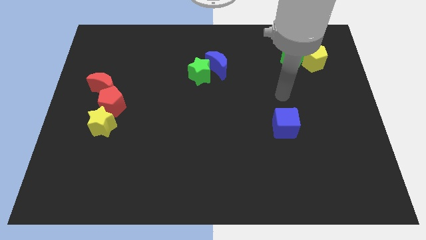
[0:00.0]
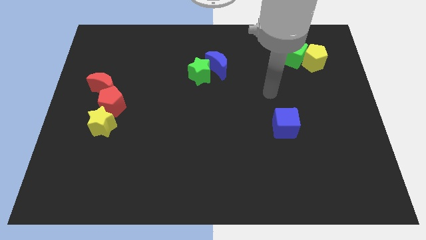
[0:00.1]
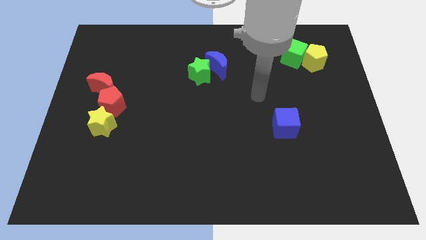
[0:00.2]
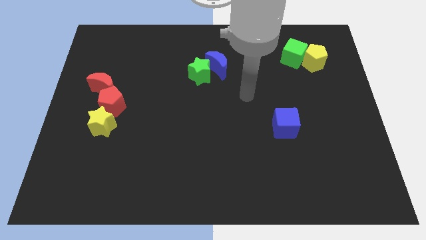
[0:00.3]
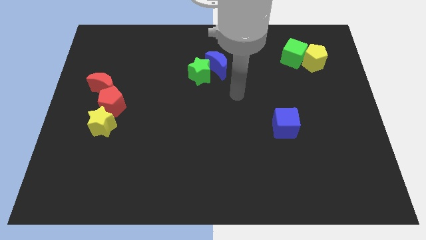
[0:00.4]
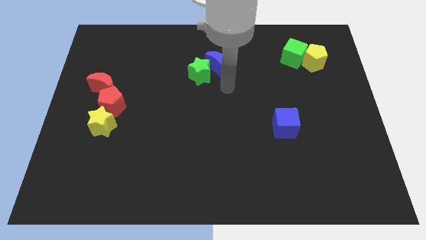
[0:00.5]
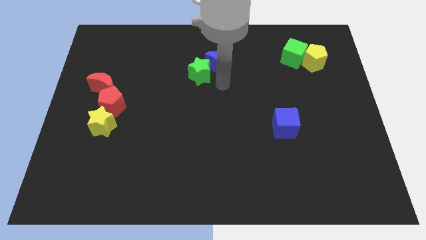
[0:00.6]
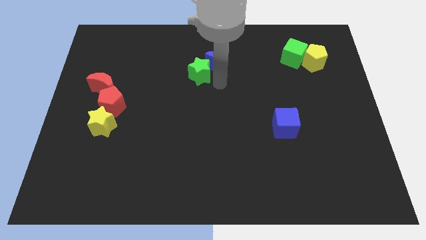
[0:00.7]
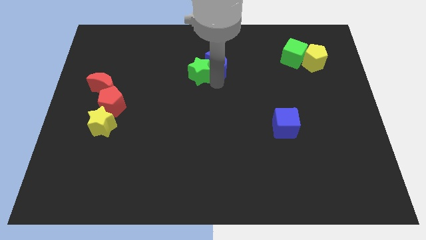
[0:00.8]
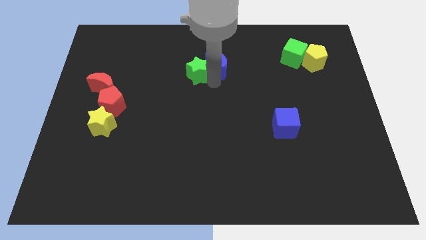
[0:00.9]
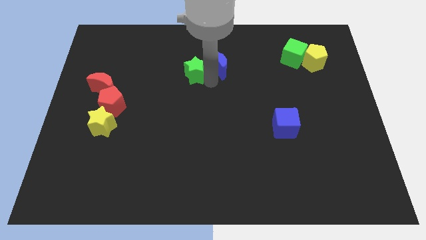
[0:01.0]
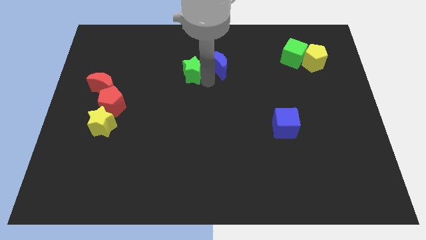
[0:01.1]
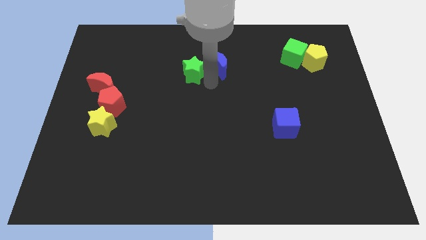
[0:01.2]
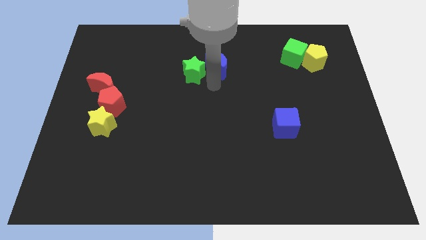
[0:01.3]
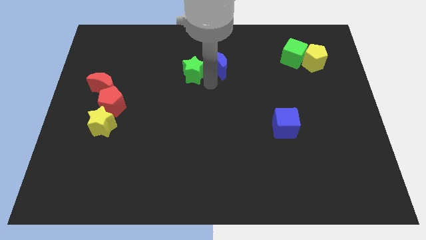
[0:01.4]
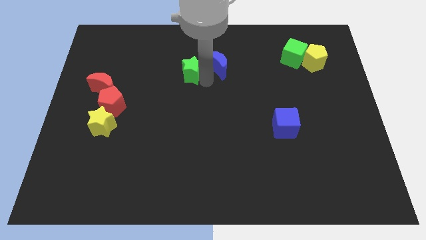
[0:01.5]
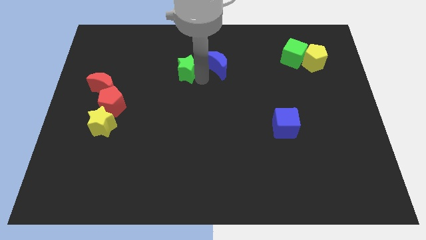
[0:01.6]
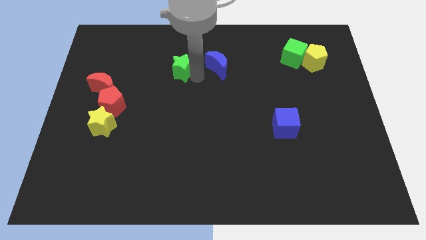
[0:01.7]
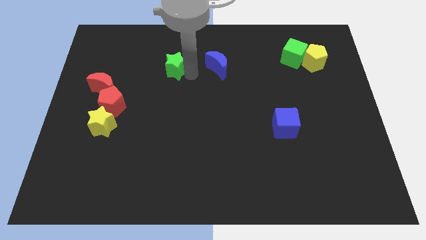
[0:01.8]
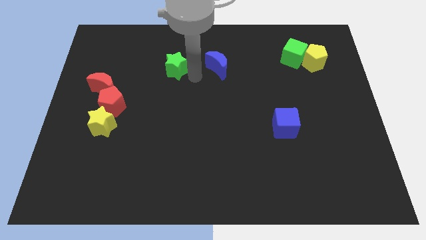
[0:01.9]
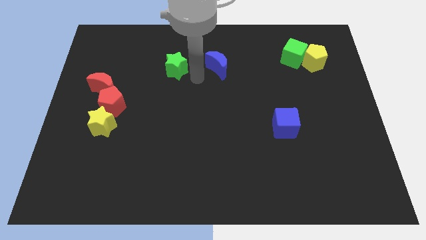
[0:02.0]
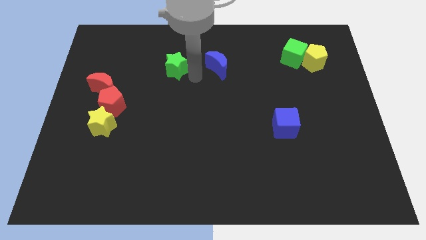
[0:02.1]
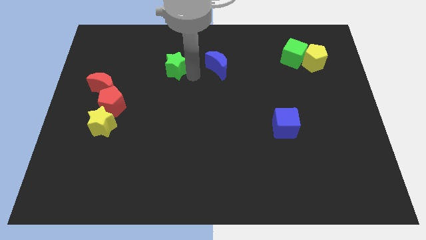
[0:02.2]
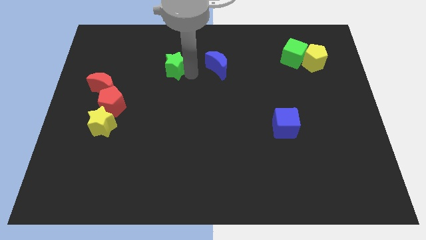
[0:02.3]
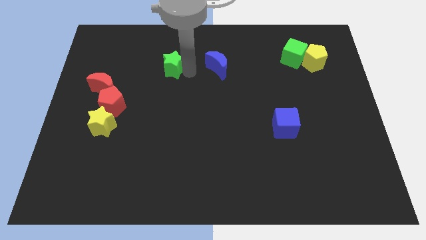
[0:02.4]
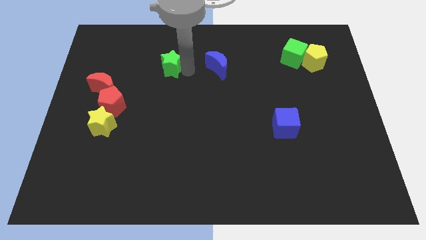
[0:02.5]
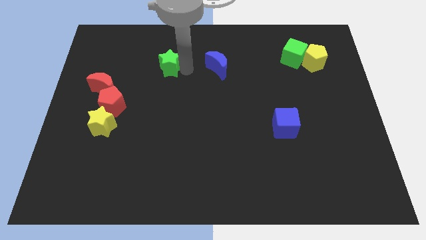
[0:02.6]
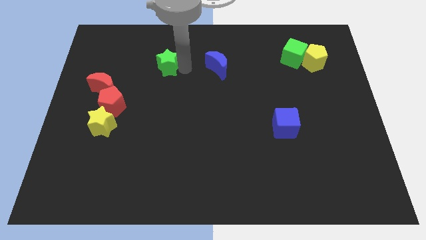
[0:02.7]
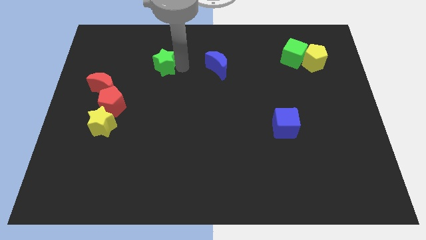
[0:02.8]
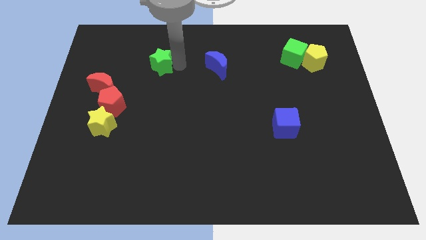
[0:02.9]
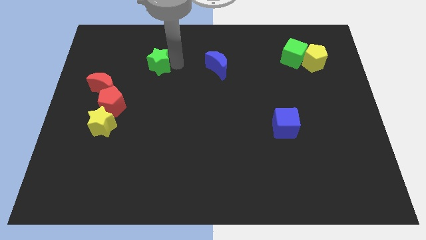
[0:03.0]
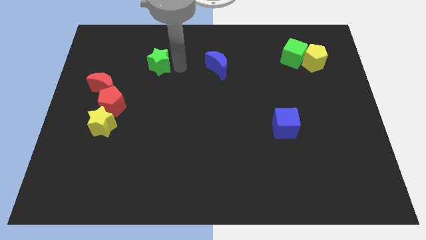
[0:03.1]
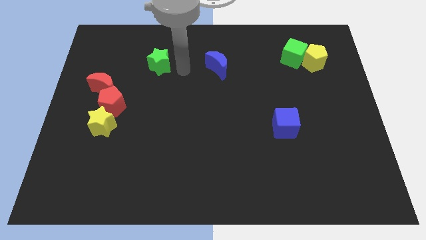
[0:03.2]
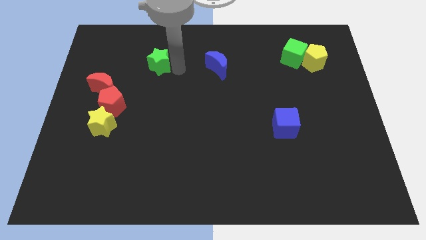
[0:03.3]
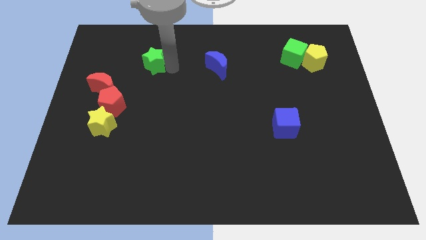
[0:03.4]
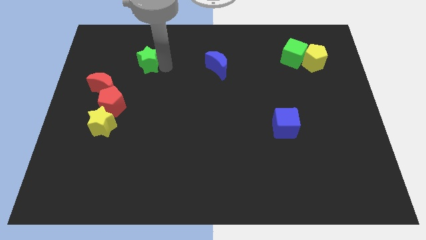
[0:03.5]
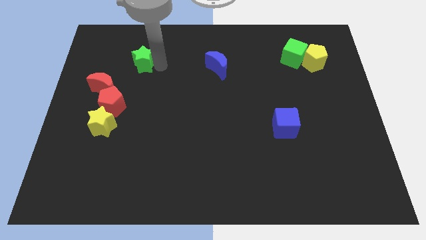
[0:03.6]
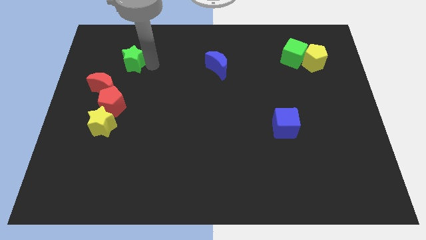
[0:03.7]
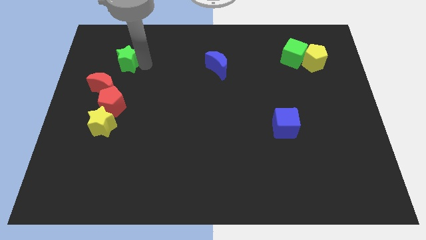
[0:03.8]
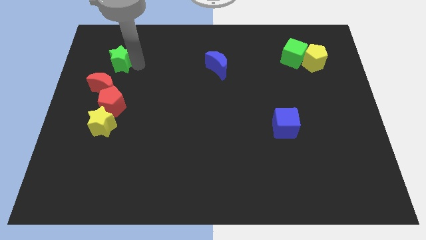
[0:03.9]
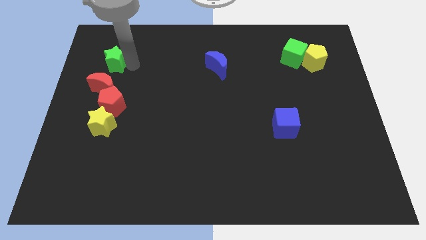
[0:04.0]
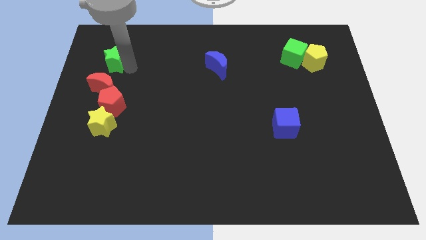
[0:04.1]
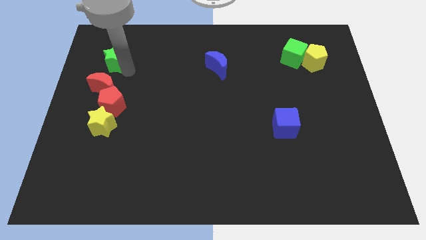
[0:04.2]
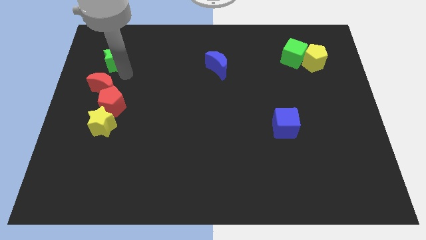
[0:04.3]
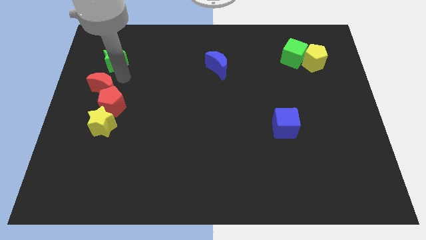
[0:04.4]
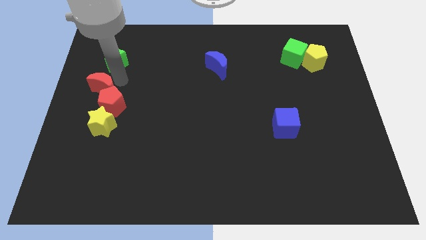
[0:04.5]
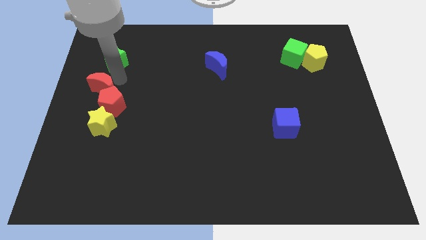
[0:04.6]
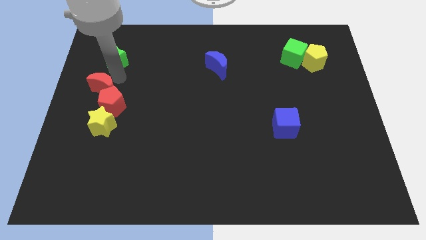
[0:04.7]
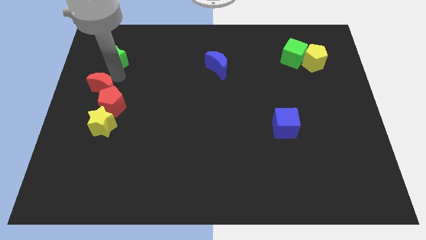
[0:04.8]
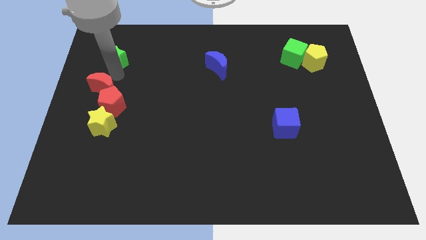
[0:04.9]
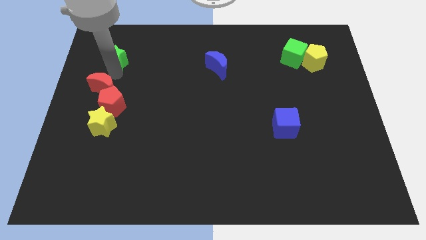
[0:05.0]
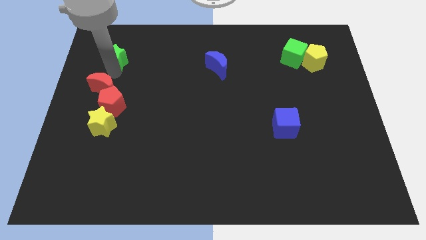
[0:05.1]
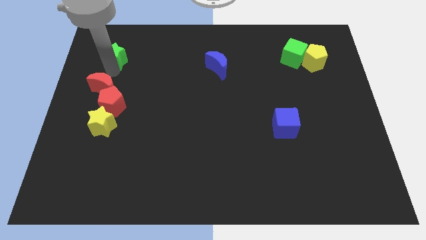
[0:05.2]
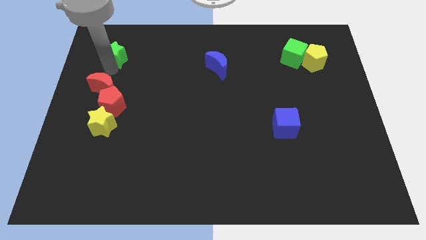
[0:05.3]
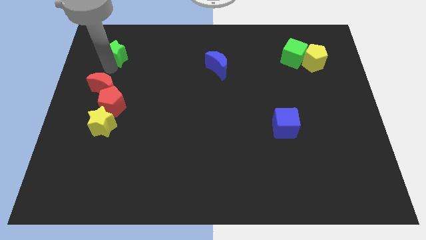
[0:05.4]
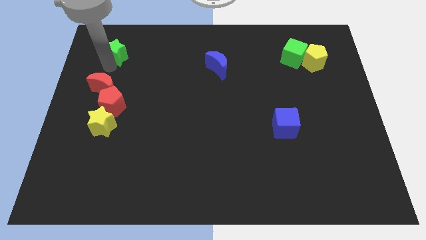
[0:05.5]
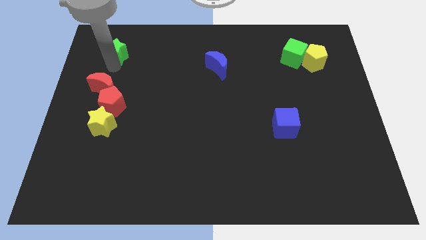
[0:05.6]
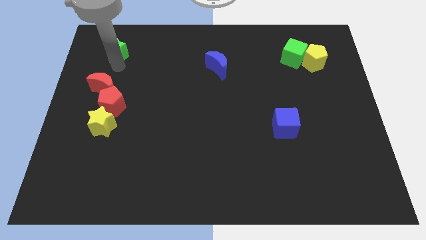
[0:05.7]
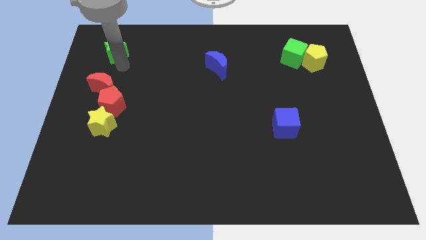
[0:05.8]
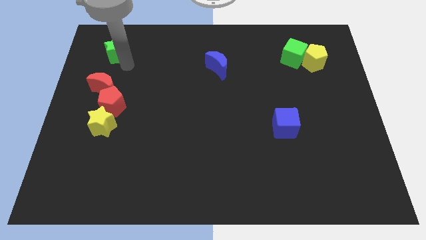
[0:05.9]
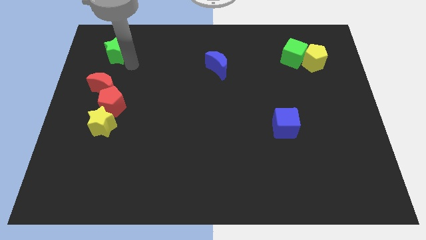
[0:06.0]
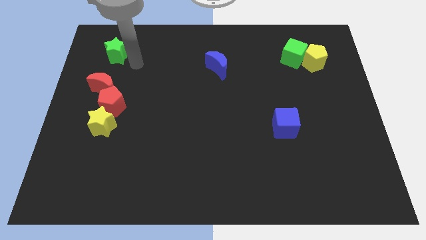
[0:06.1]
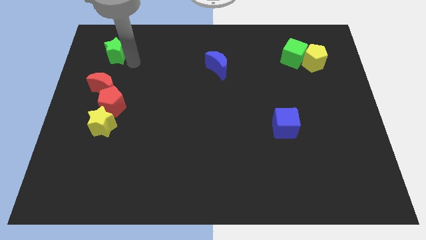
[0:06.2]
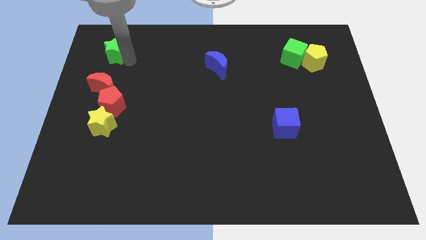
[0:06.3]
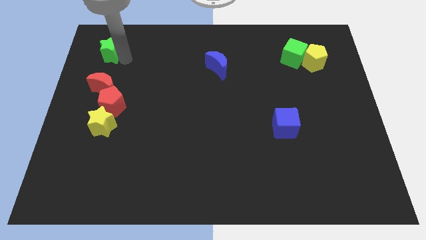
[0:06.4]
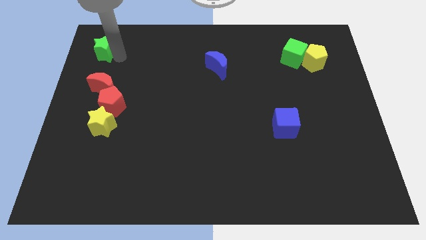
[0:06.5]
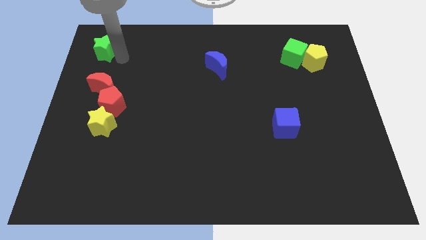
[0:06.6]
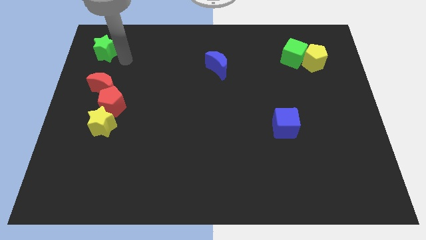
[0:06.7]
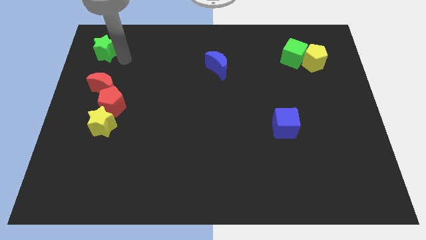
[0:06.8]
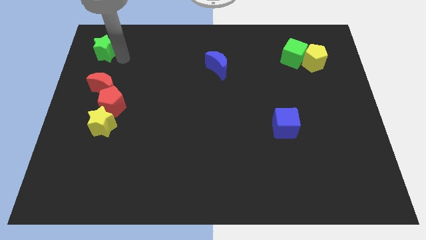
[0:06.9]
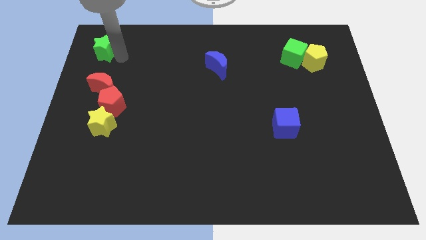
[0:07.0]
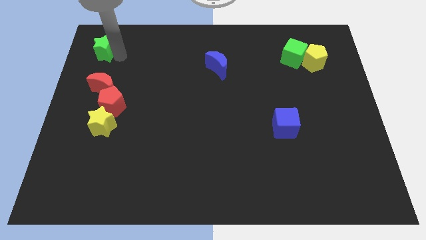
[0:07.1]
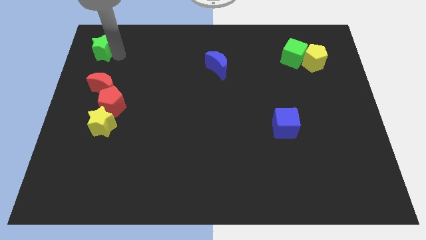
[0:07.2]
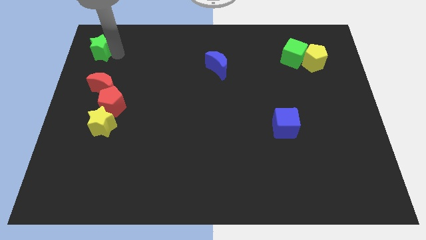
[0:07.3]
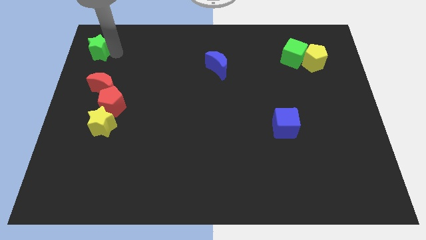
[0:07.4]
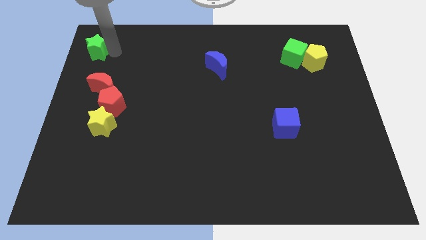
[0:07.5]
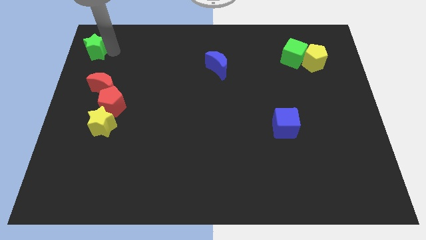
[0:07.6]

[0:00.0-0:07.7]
push the green star to the top left of the board
